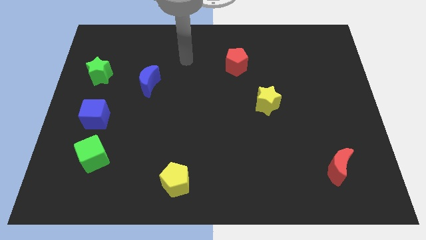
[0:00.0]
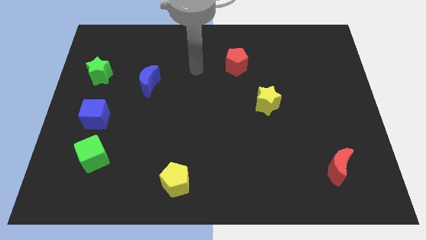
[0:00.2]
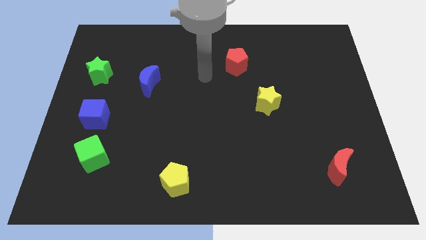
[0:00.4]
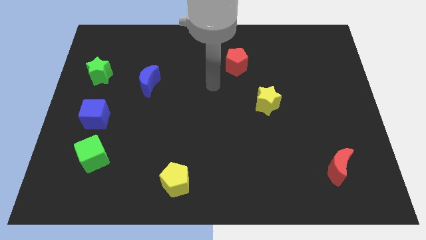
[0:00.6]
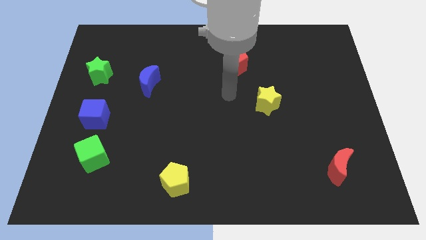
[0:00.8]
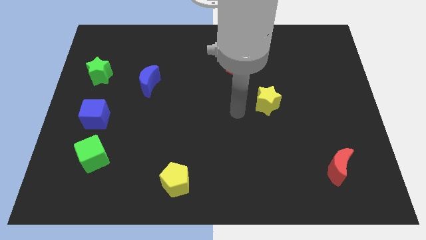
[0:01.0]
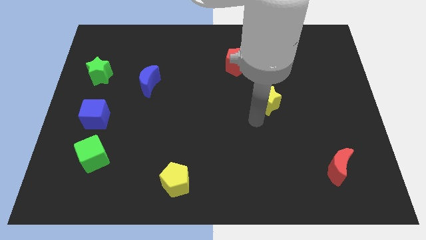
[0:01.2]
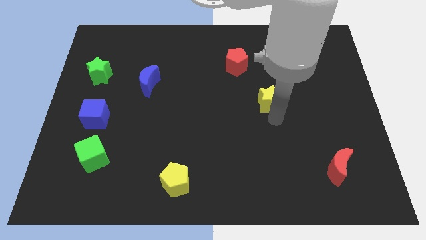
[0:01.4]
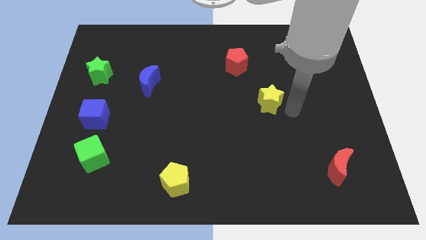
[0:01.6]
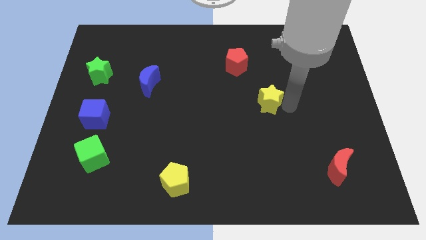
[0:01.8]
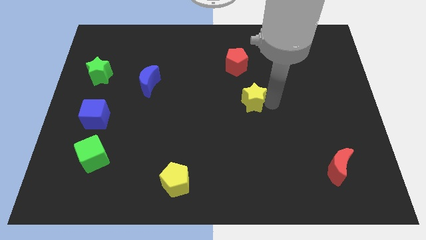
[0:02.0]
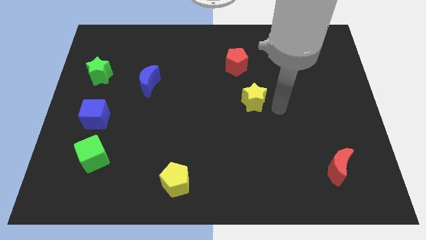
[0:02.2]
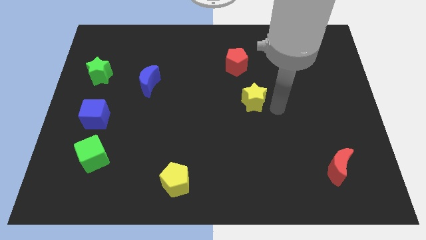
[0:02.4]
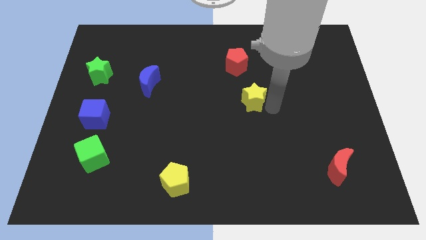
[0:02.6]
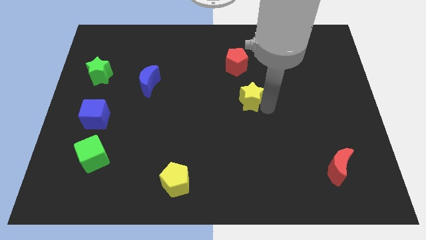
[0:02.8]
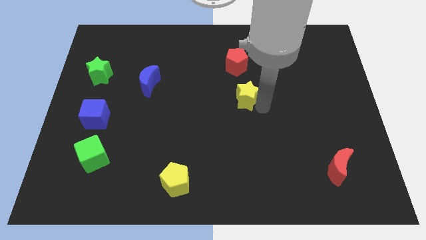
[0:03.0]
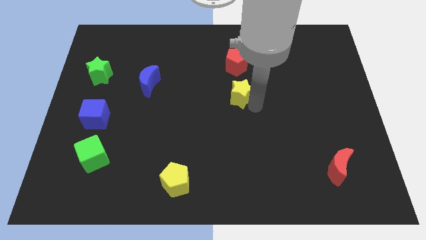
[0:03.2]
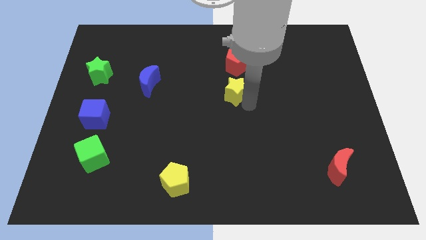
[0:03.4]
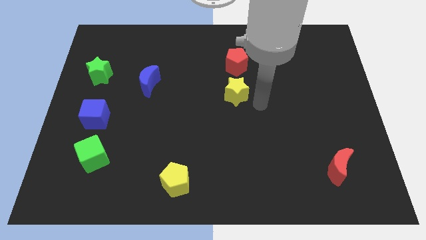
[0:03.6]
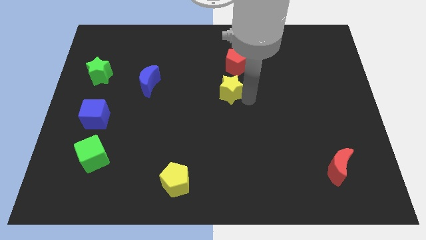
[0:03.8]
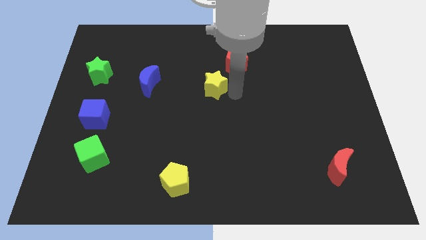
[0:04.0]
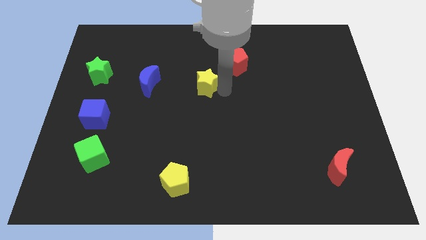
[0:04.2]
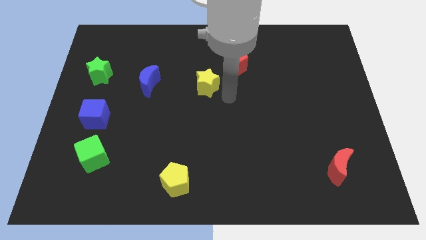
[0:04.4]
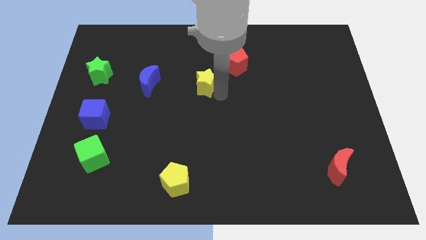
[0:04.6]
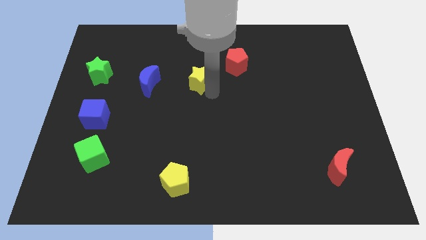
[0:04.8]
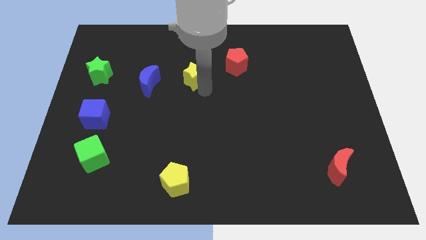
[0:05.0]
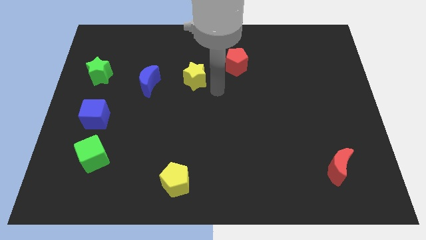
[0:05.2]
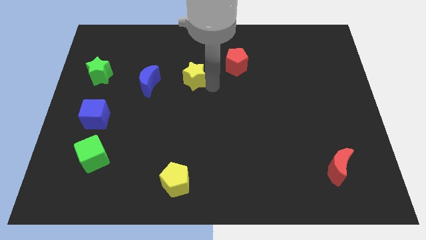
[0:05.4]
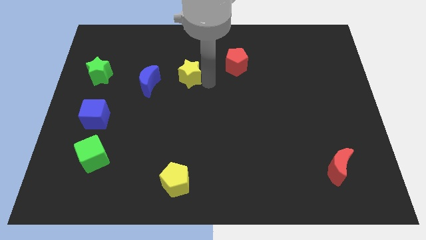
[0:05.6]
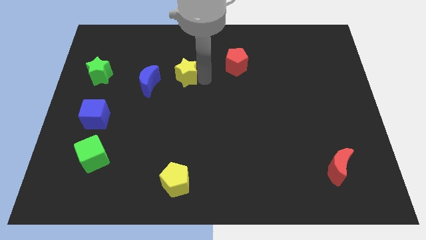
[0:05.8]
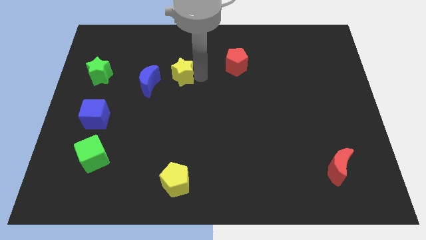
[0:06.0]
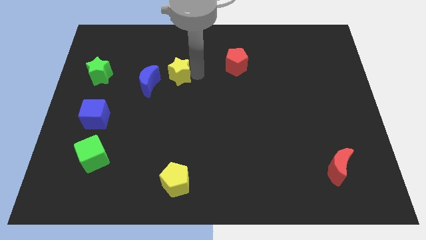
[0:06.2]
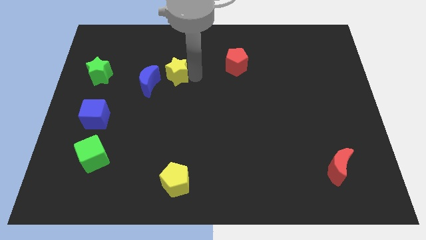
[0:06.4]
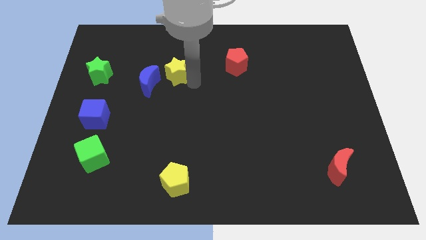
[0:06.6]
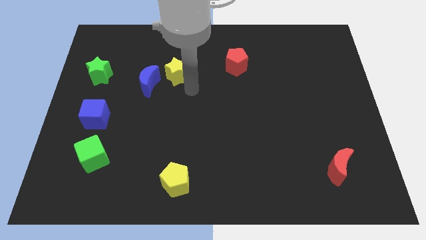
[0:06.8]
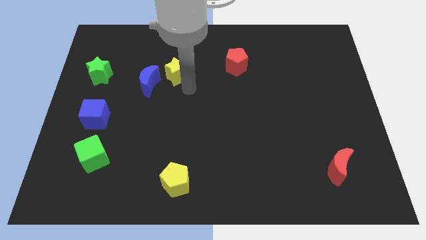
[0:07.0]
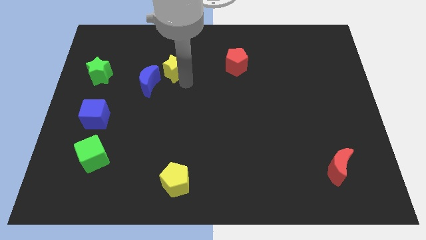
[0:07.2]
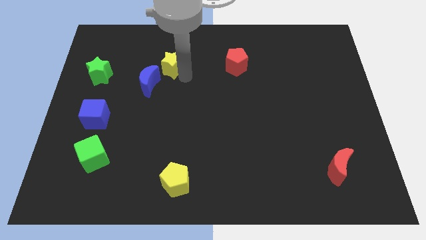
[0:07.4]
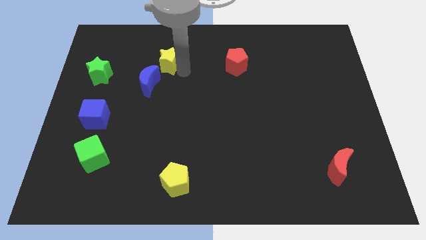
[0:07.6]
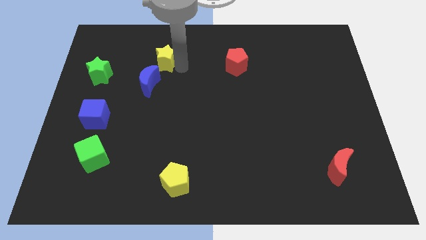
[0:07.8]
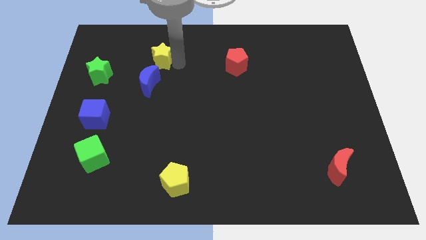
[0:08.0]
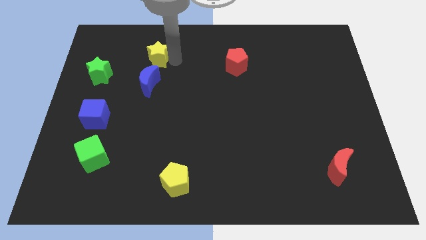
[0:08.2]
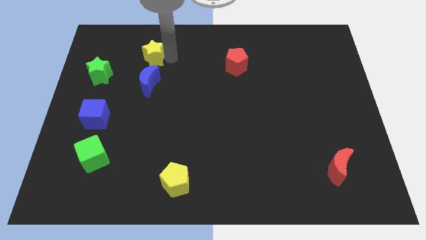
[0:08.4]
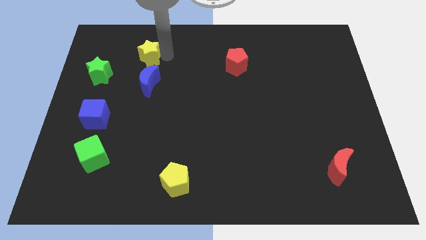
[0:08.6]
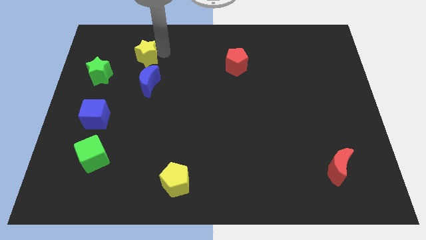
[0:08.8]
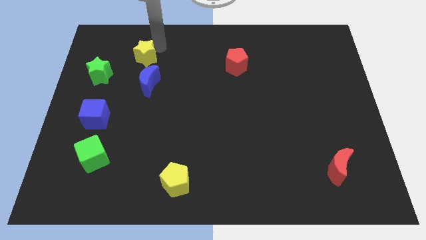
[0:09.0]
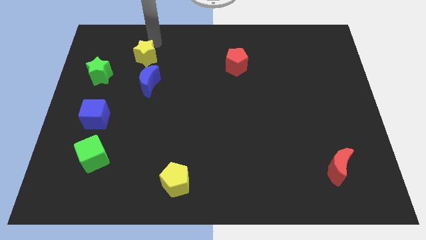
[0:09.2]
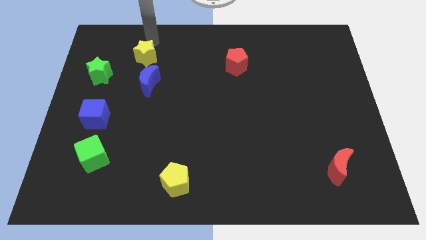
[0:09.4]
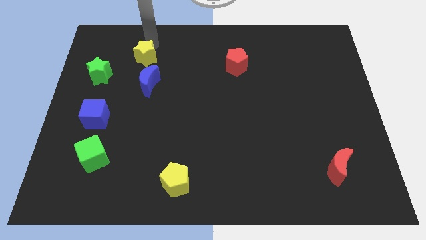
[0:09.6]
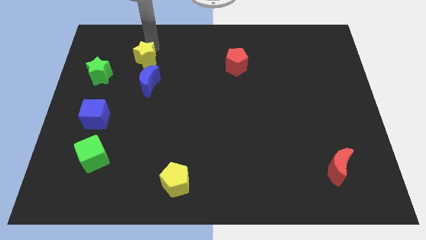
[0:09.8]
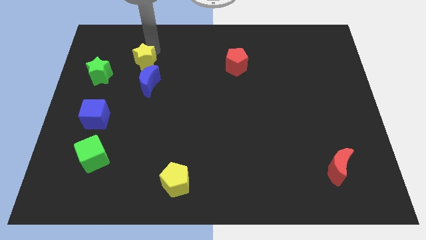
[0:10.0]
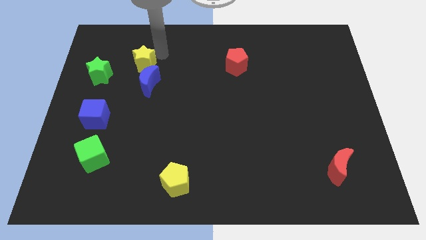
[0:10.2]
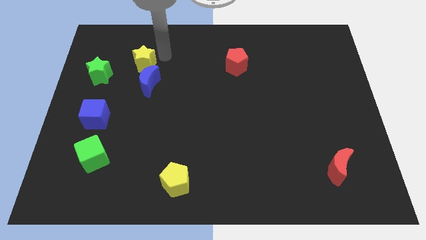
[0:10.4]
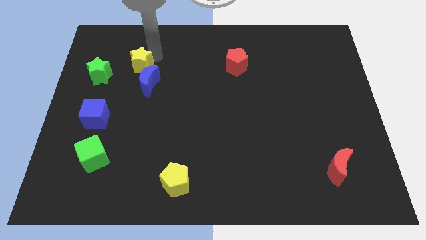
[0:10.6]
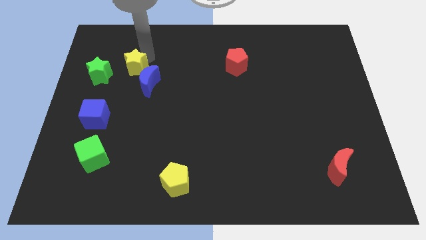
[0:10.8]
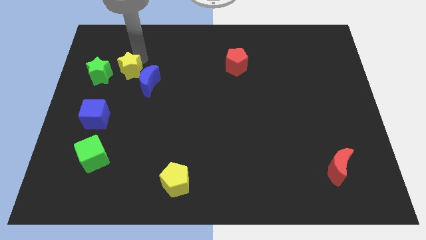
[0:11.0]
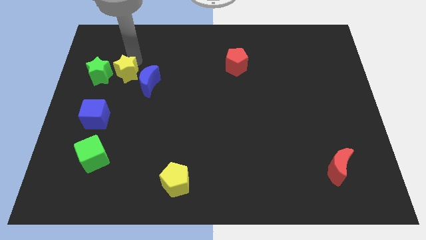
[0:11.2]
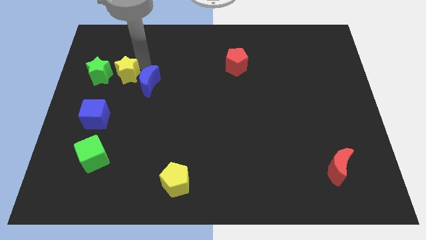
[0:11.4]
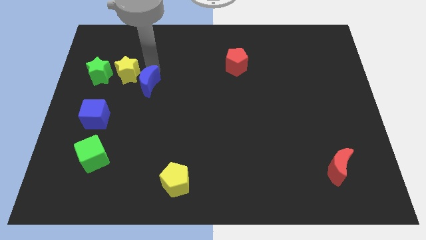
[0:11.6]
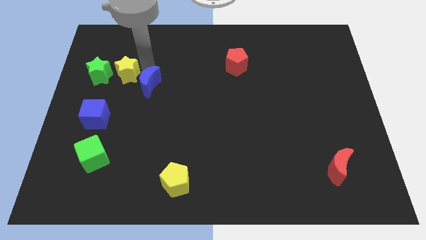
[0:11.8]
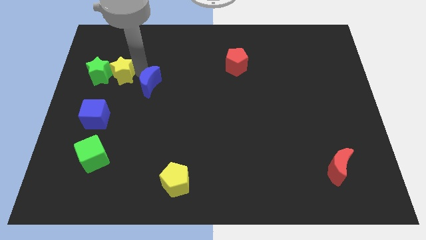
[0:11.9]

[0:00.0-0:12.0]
push the yellow star close to the green star

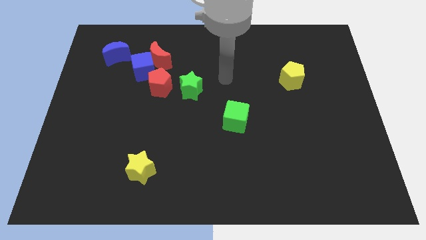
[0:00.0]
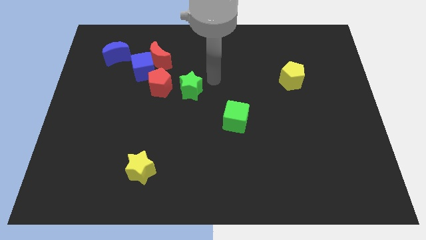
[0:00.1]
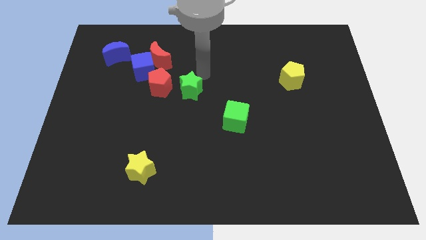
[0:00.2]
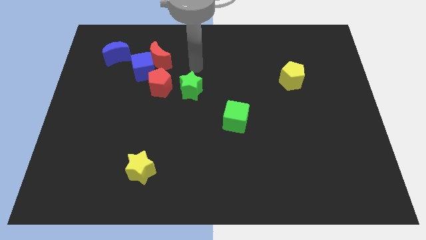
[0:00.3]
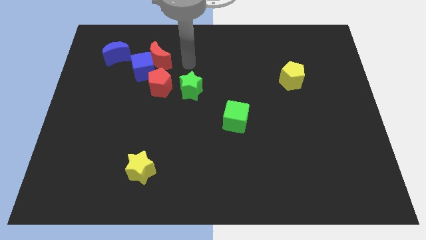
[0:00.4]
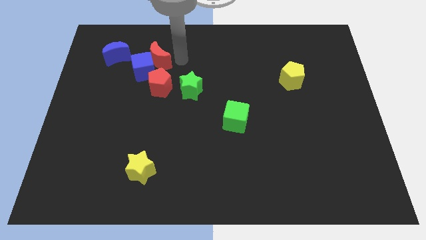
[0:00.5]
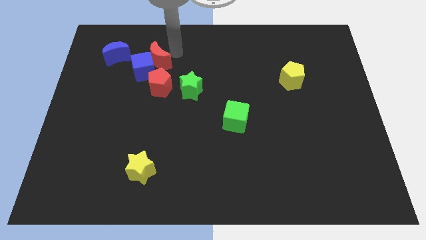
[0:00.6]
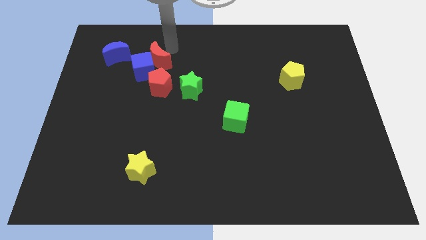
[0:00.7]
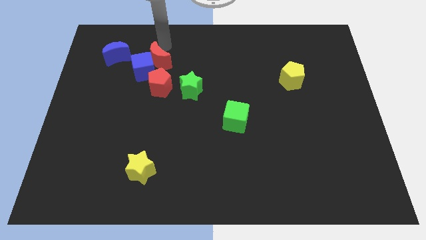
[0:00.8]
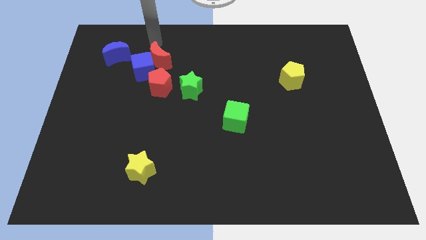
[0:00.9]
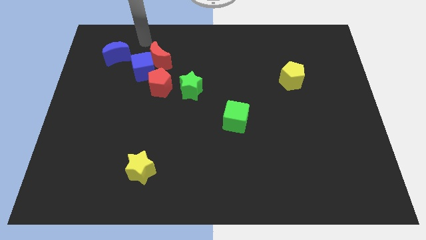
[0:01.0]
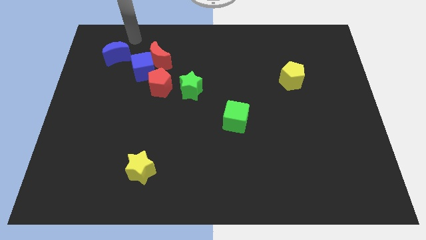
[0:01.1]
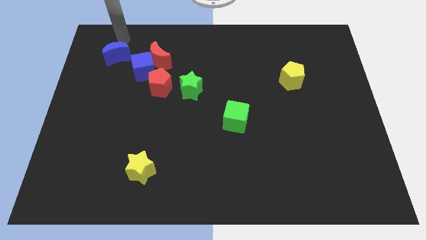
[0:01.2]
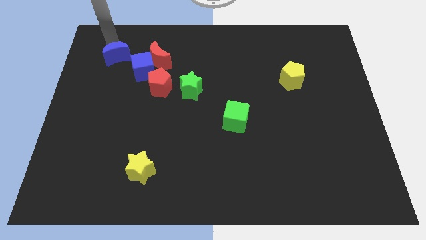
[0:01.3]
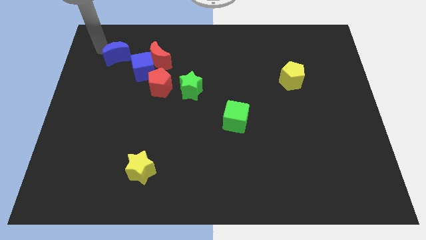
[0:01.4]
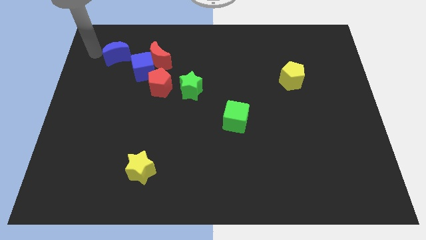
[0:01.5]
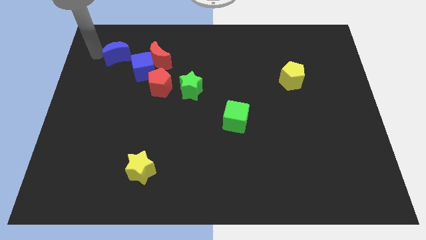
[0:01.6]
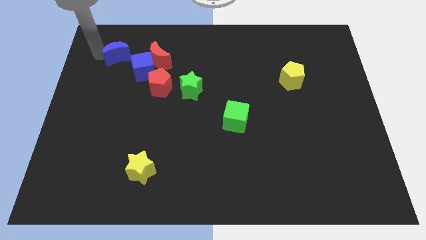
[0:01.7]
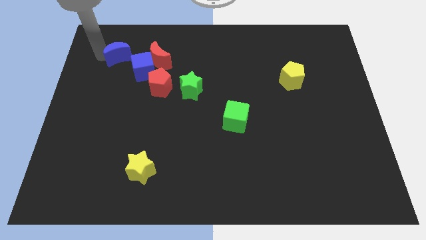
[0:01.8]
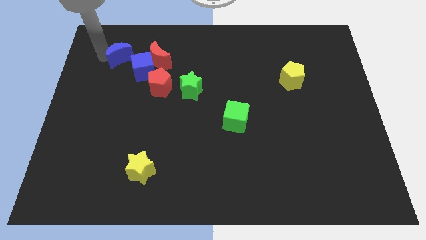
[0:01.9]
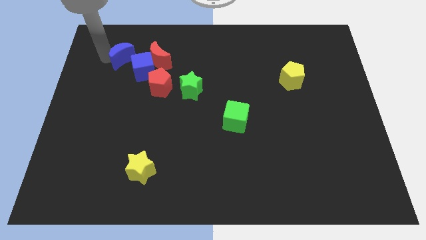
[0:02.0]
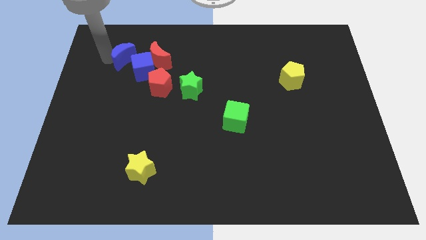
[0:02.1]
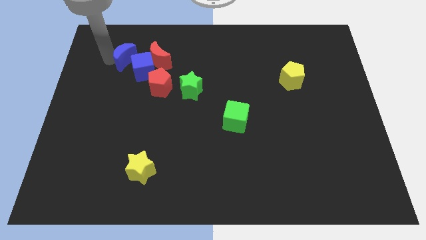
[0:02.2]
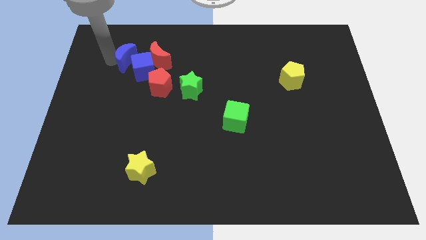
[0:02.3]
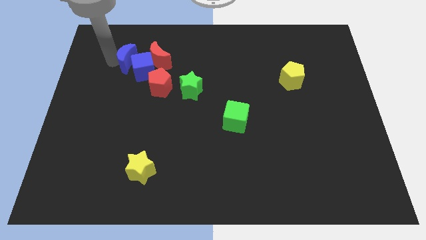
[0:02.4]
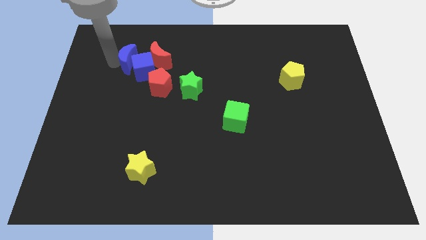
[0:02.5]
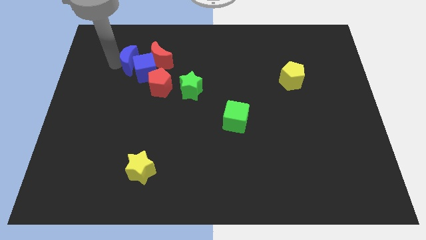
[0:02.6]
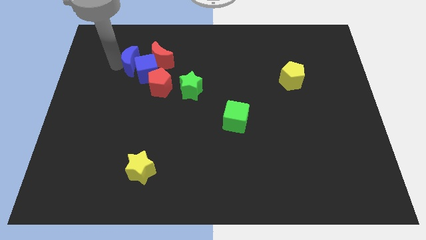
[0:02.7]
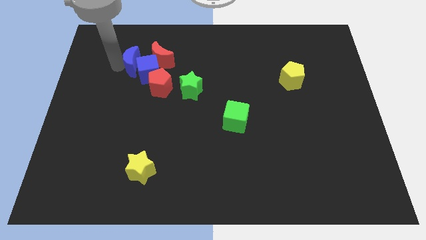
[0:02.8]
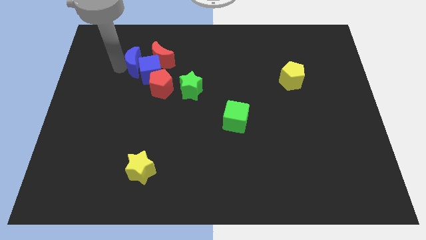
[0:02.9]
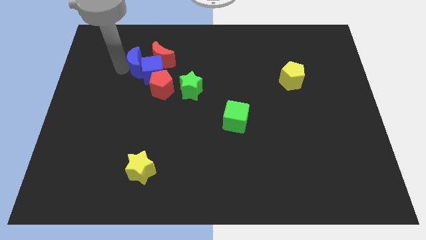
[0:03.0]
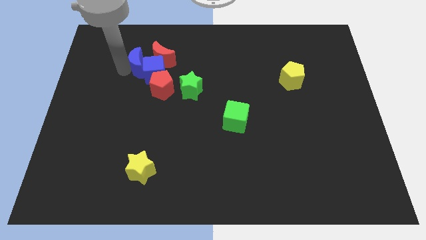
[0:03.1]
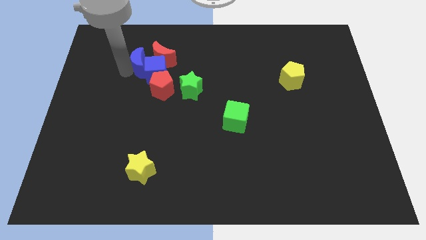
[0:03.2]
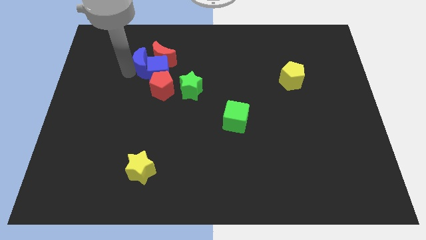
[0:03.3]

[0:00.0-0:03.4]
put the blue moon to the red moon
